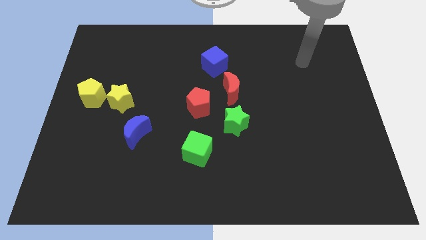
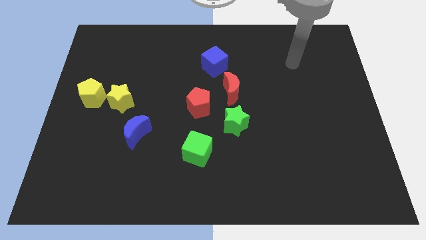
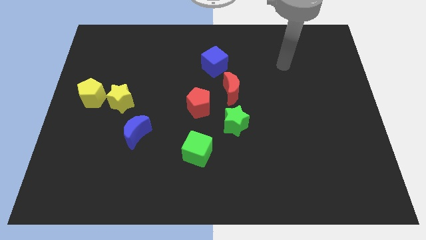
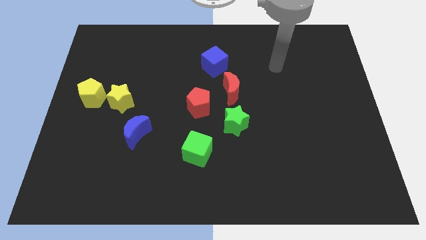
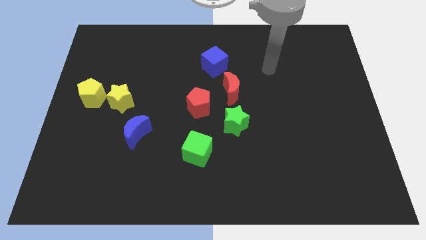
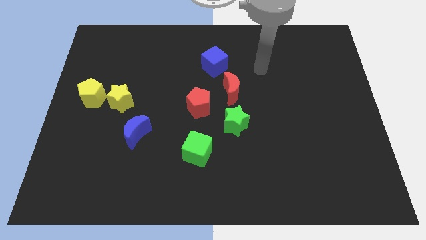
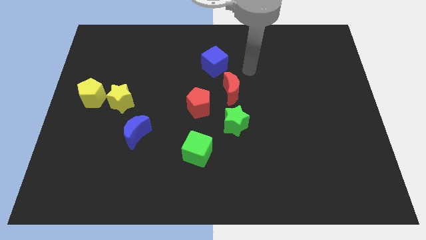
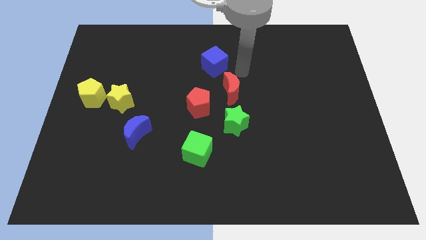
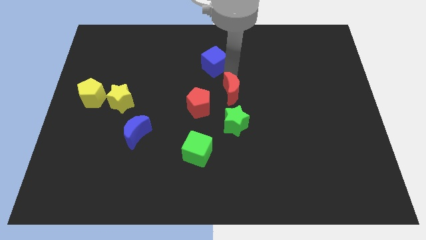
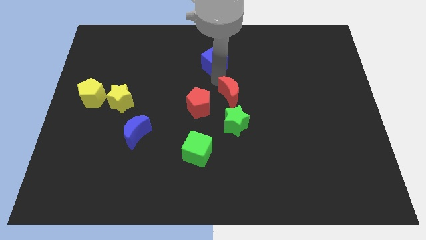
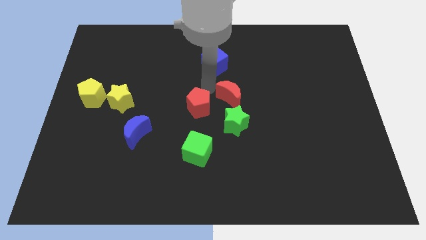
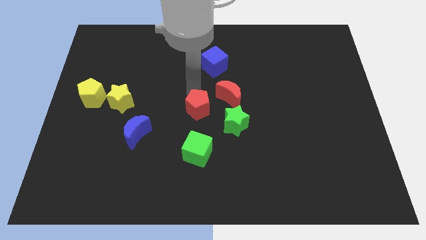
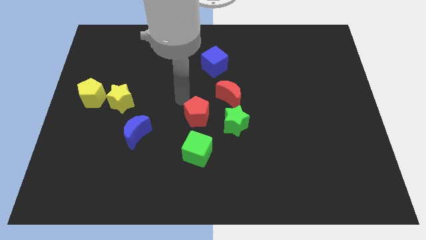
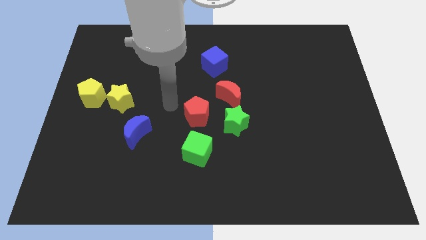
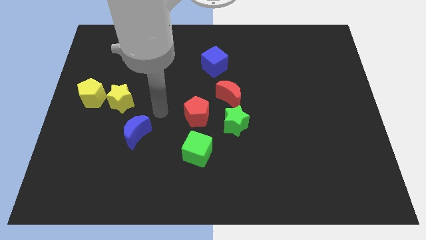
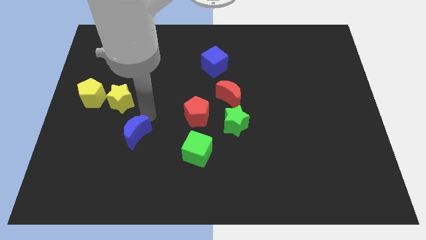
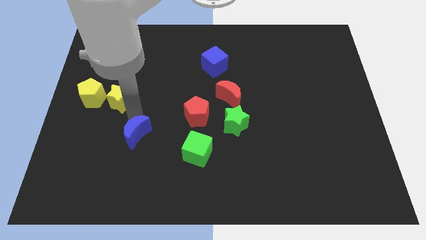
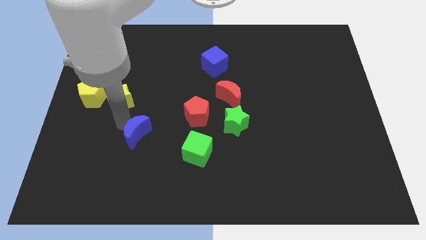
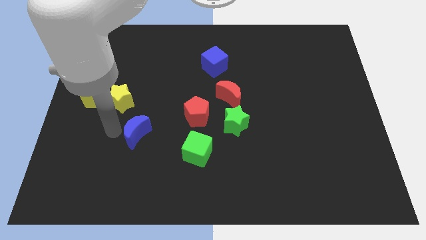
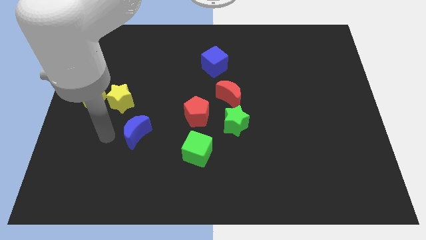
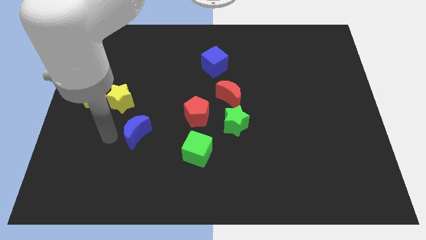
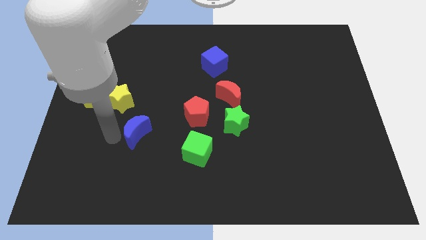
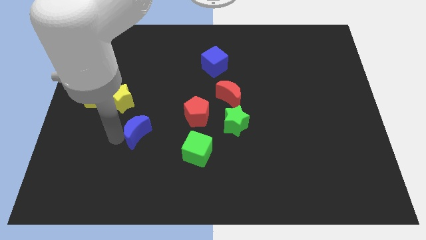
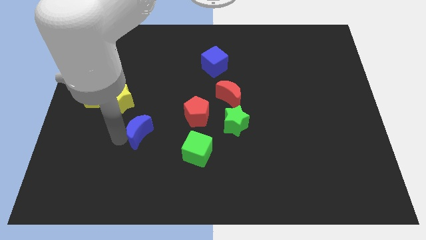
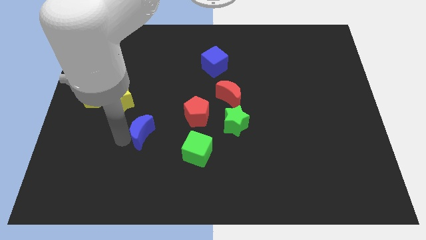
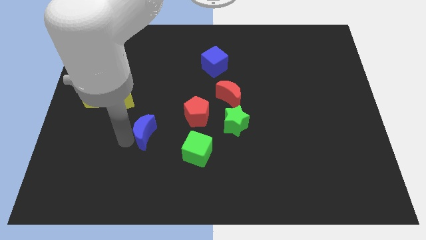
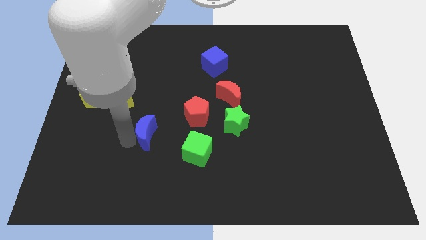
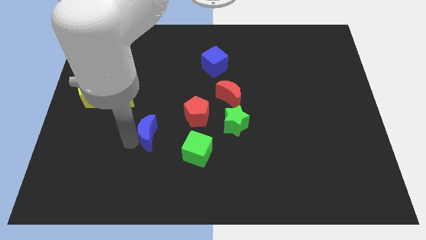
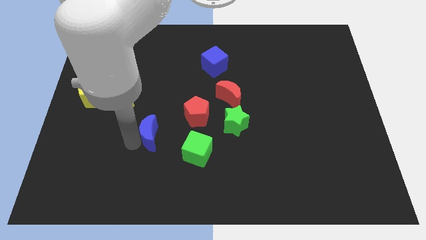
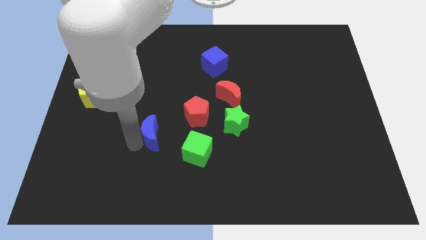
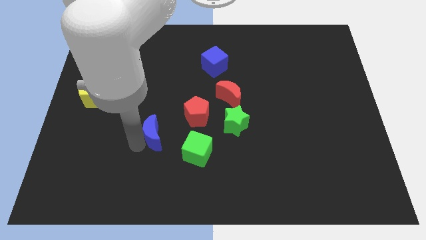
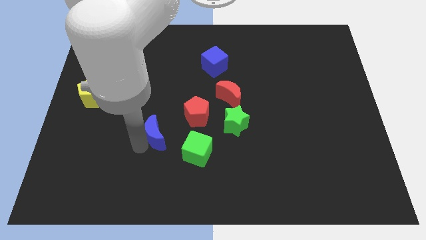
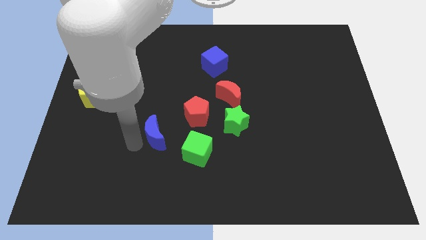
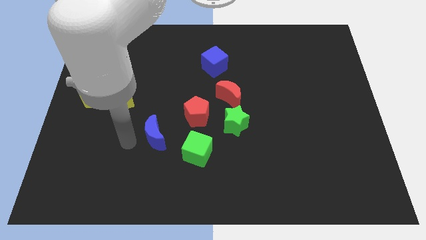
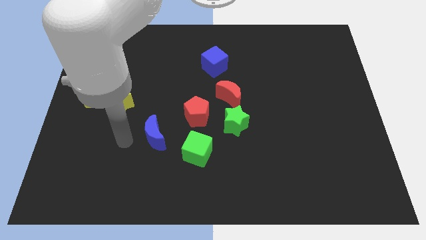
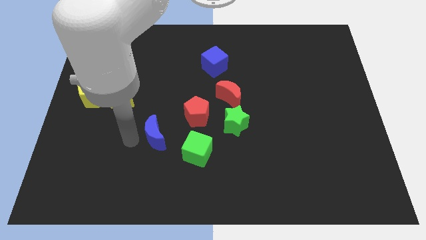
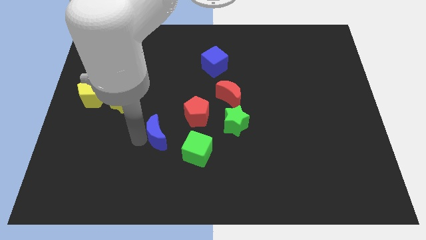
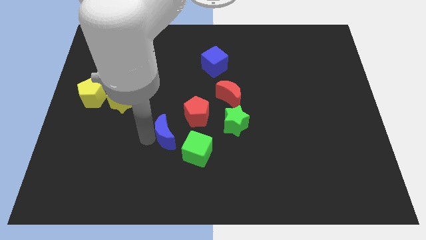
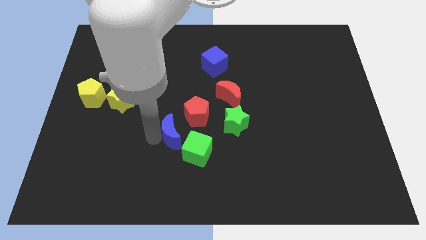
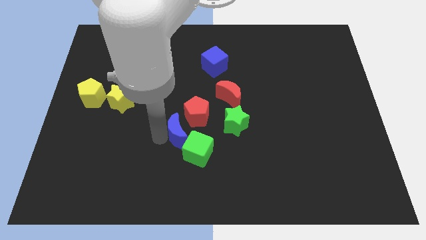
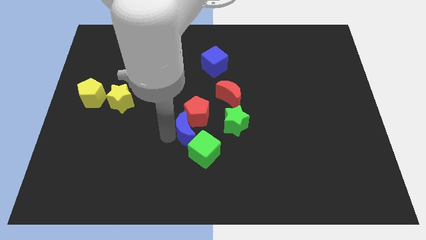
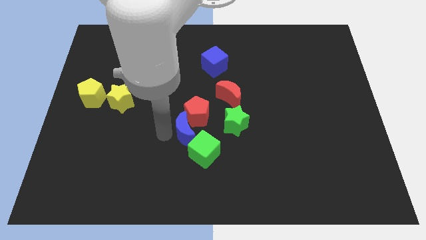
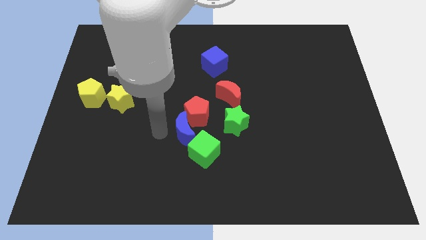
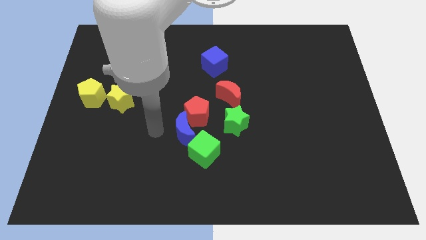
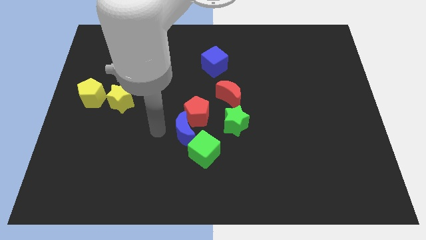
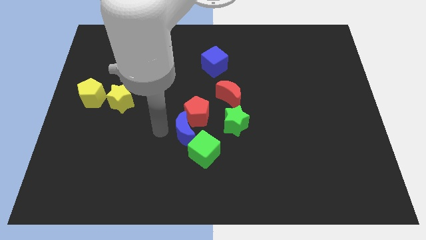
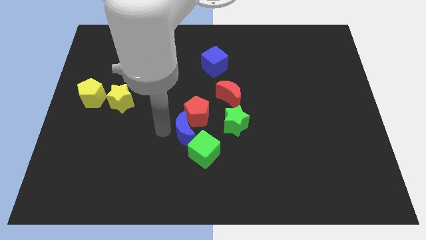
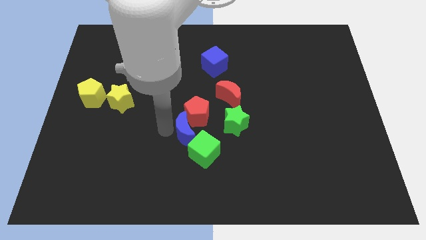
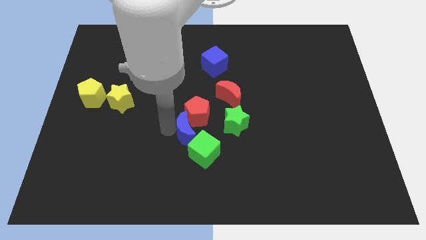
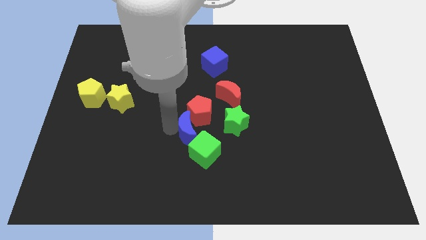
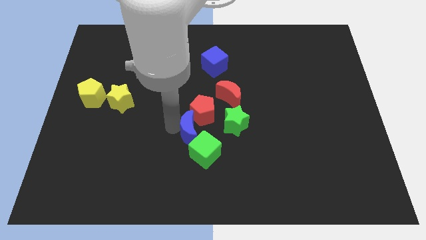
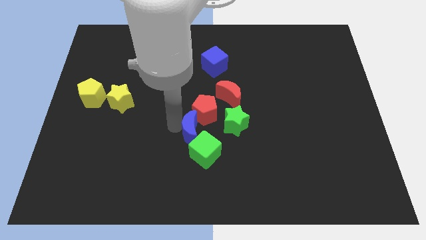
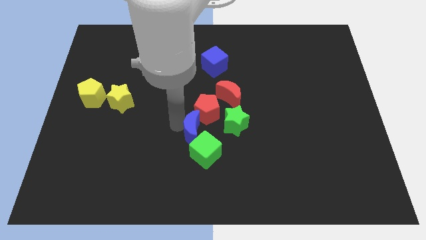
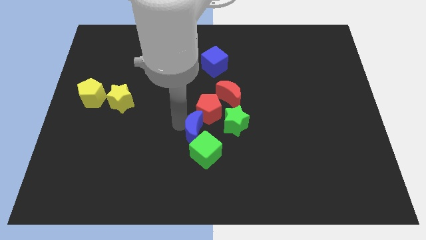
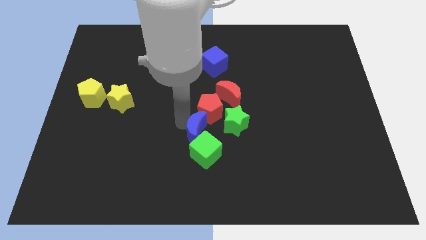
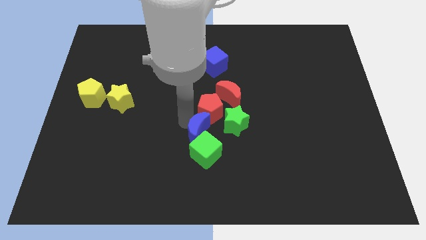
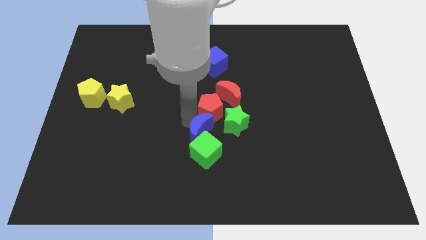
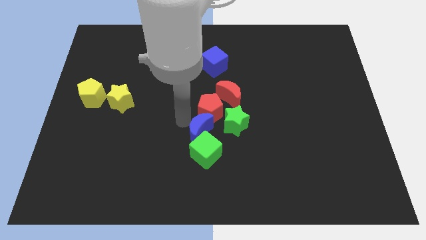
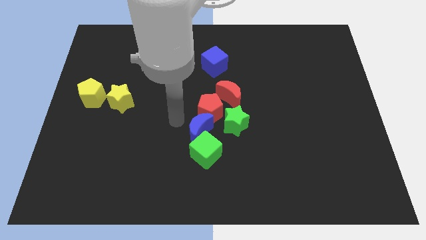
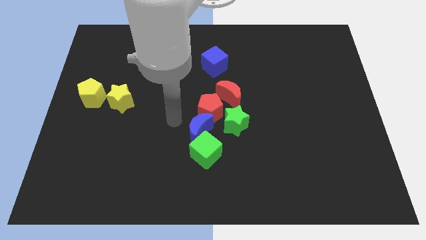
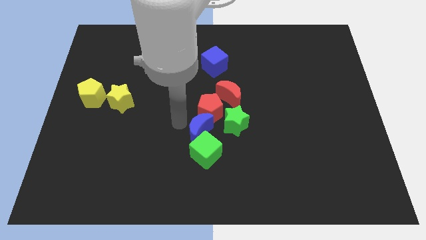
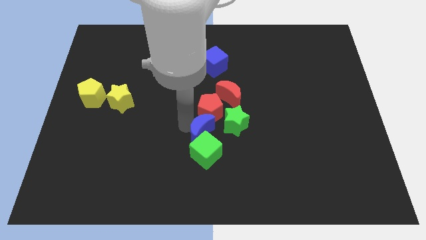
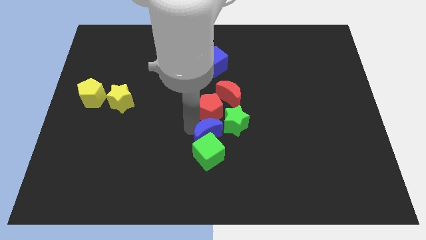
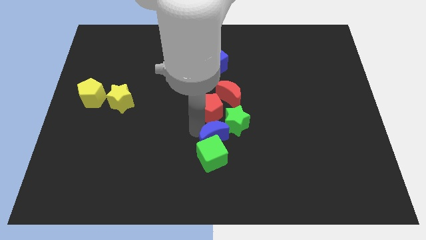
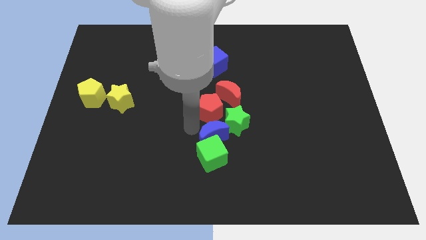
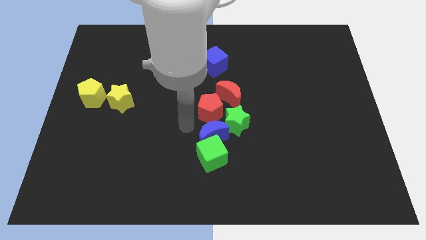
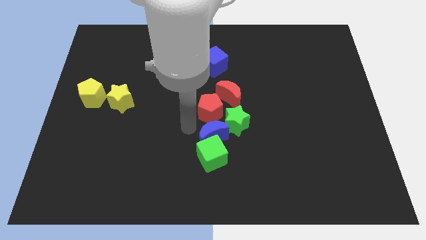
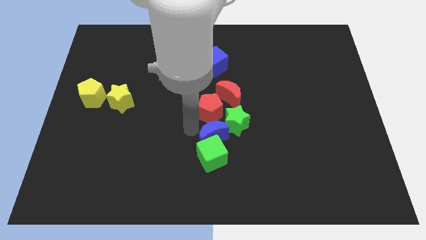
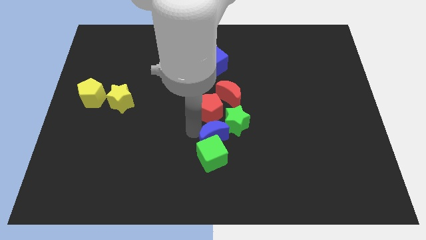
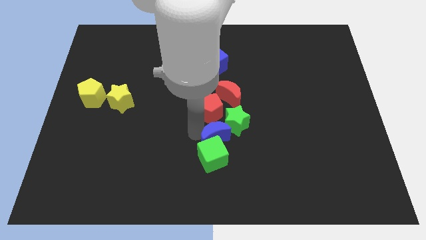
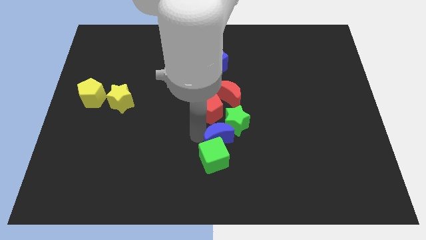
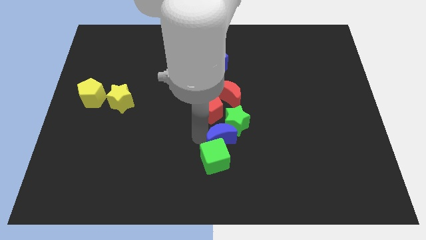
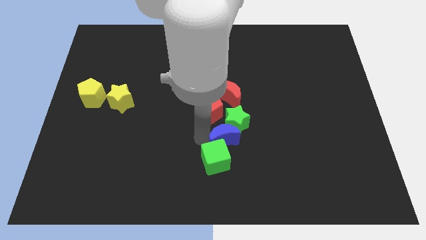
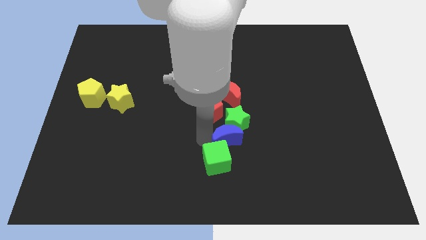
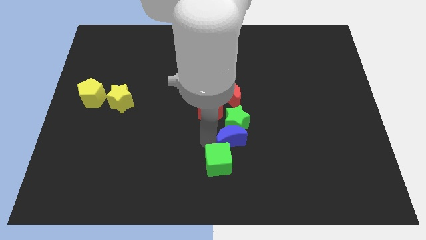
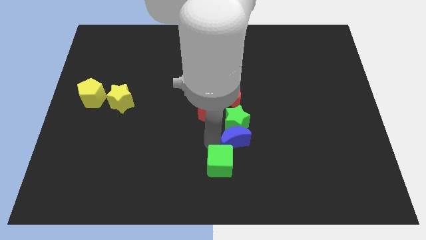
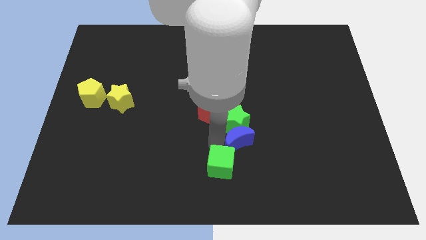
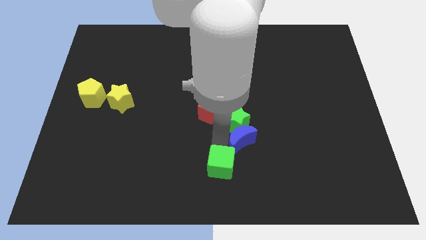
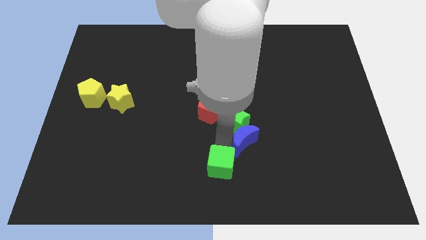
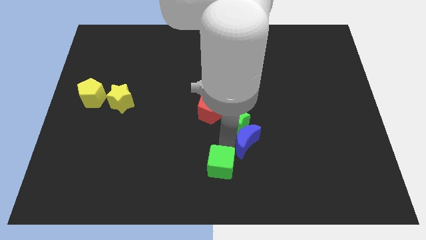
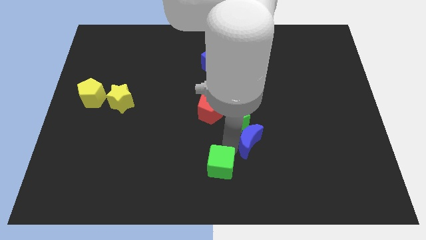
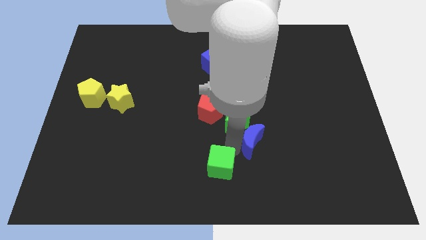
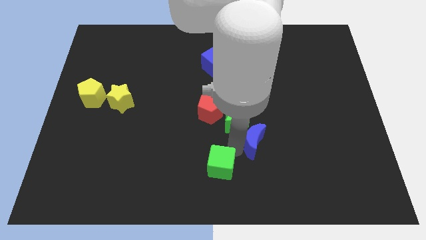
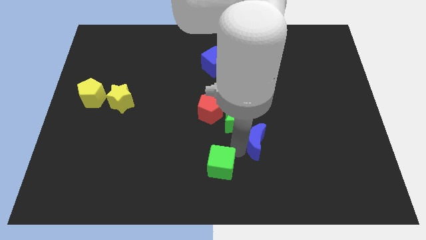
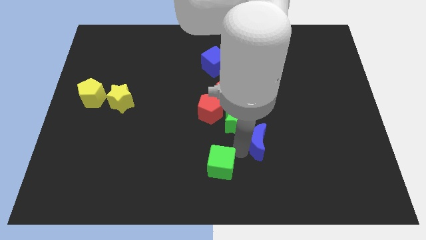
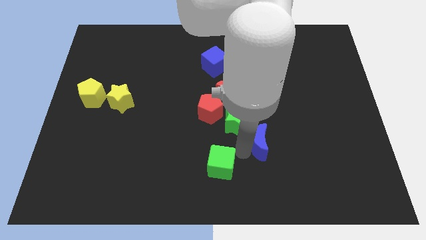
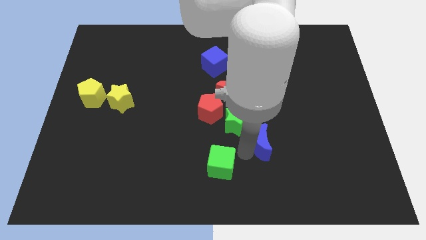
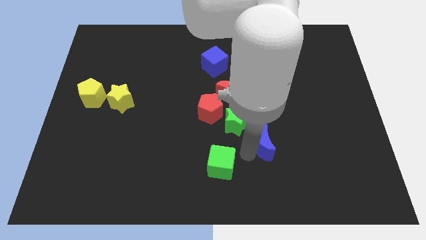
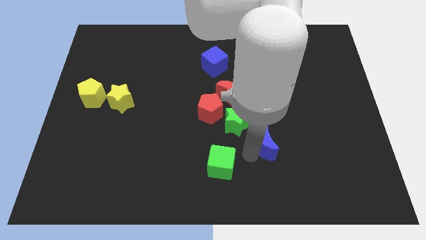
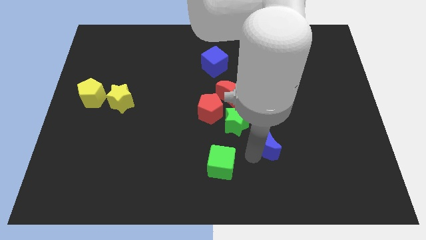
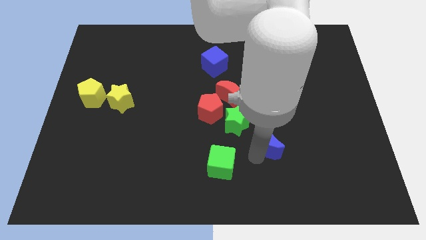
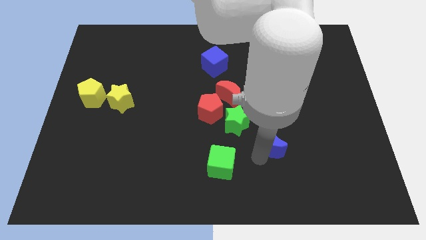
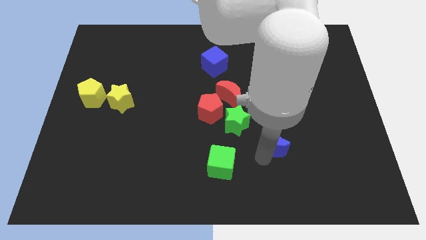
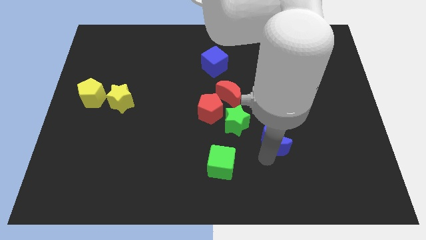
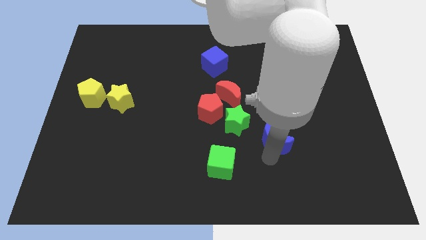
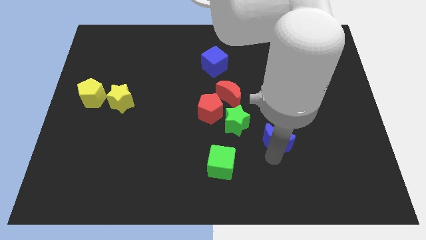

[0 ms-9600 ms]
put the blue moon right of the green star
